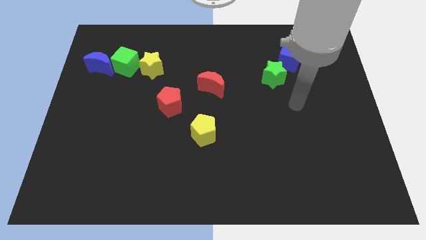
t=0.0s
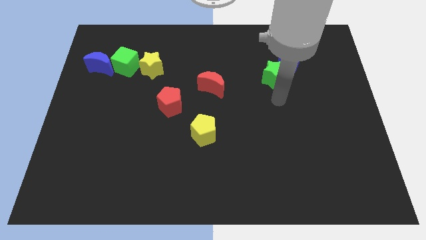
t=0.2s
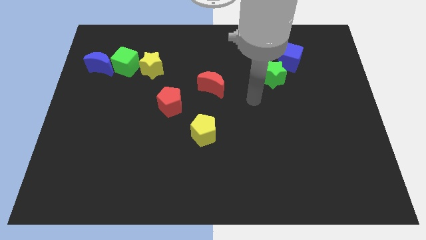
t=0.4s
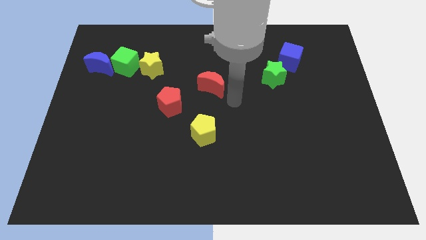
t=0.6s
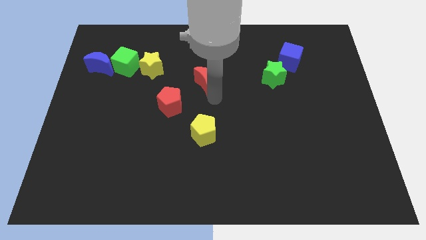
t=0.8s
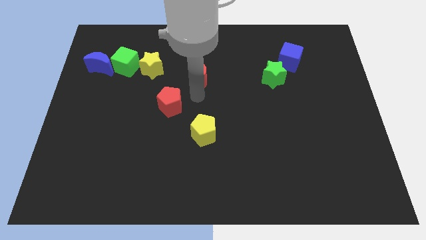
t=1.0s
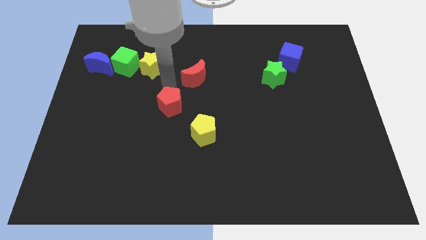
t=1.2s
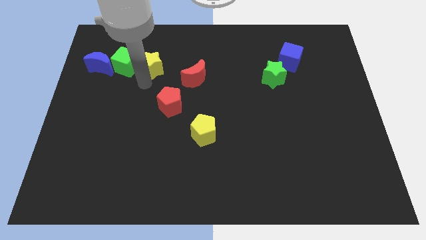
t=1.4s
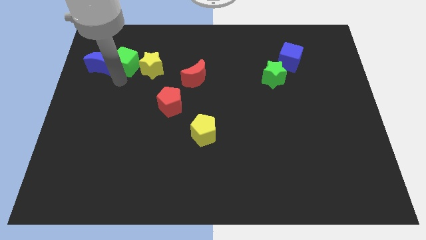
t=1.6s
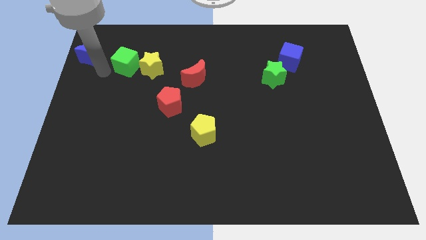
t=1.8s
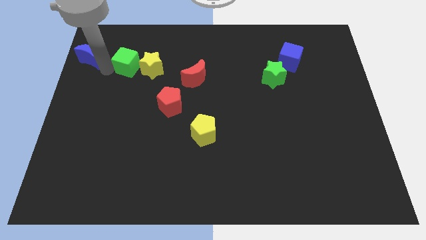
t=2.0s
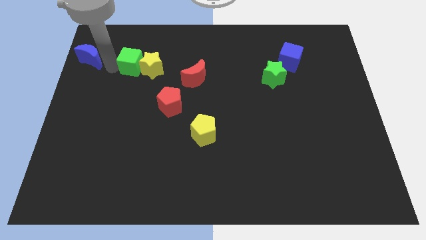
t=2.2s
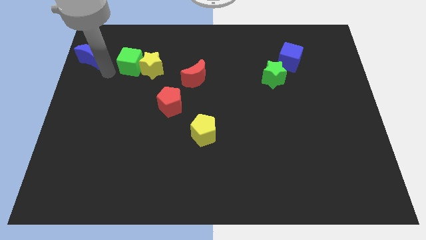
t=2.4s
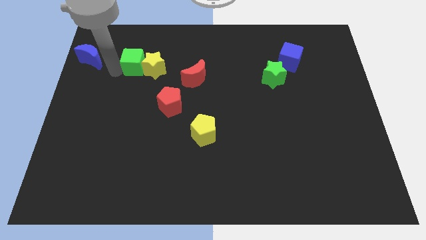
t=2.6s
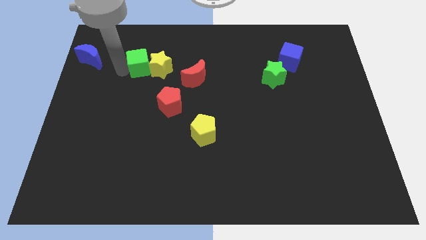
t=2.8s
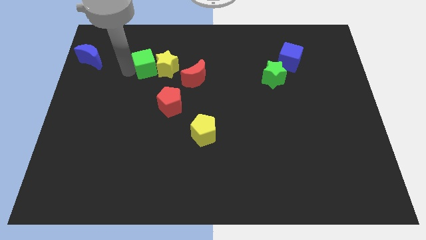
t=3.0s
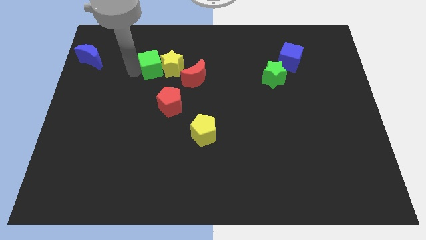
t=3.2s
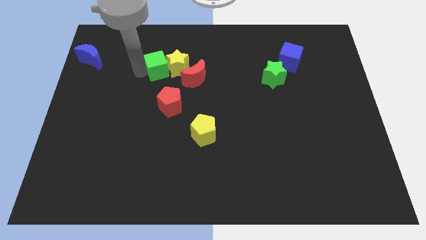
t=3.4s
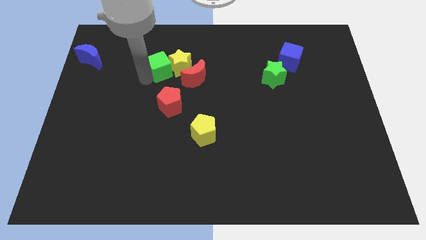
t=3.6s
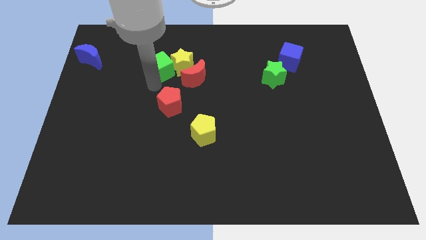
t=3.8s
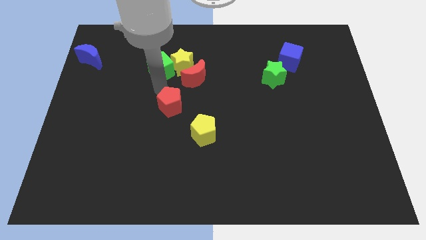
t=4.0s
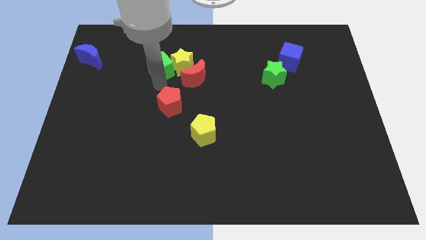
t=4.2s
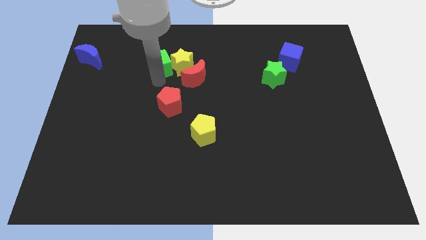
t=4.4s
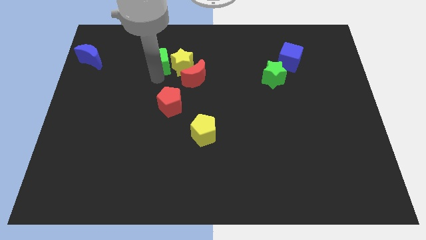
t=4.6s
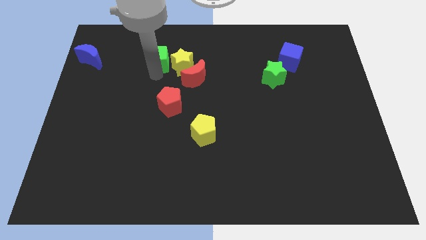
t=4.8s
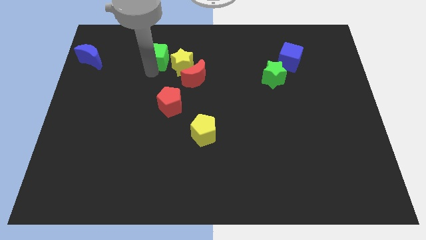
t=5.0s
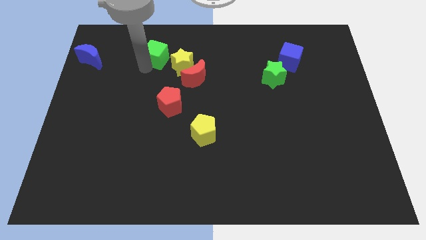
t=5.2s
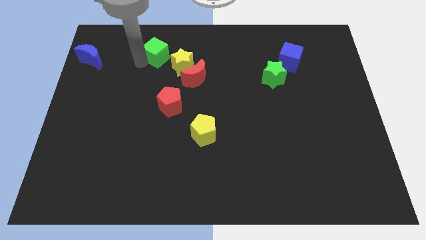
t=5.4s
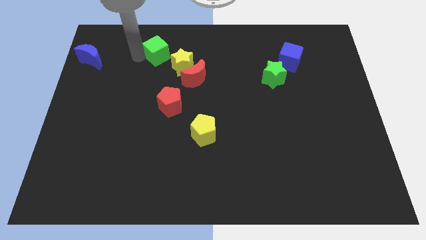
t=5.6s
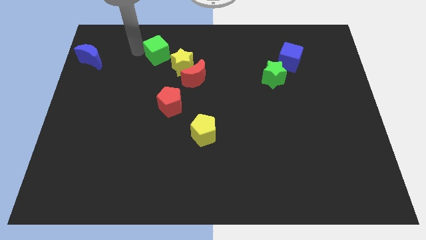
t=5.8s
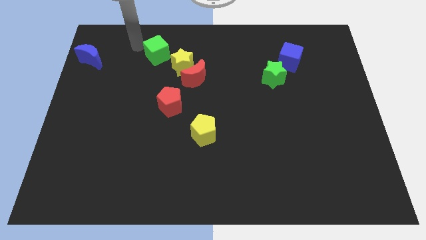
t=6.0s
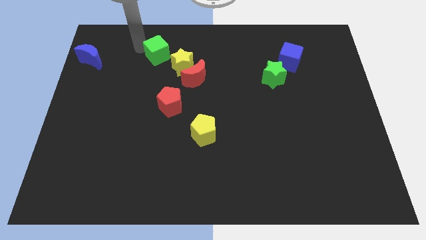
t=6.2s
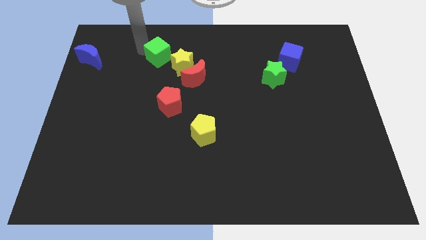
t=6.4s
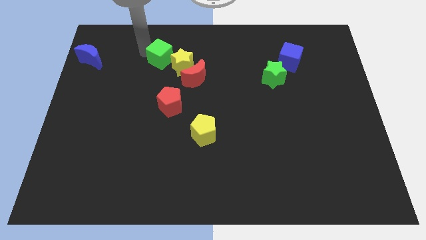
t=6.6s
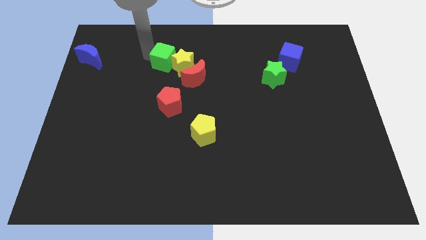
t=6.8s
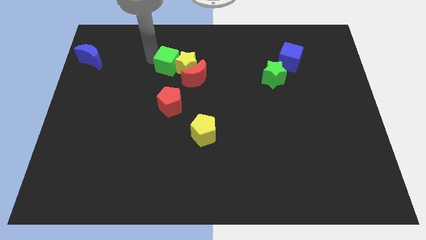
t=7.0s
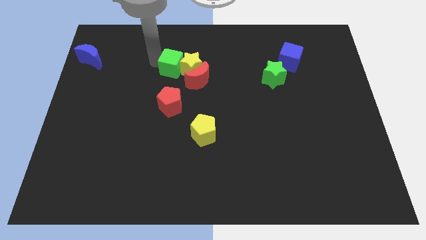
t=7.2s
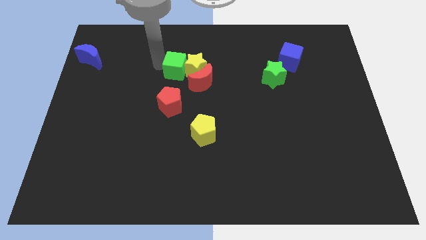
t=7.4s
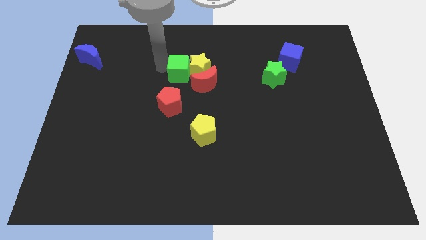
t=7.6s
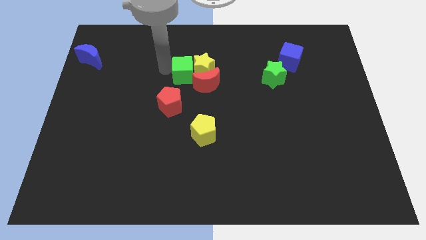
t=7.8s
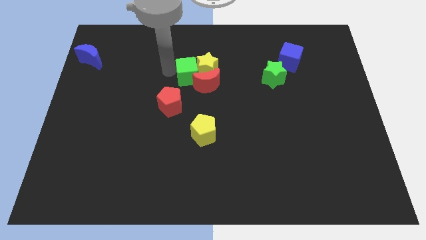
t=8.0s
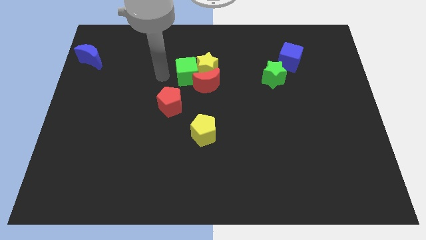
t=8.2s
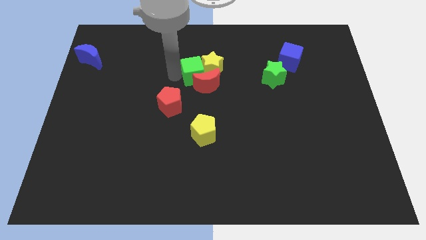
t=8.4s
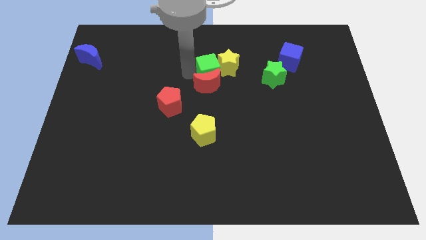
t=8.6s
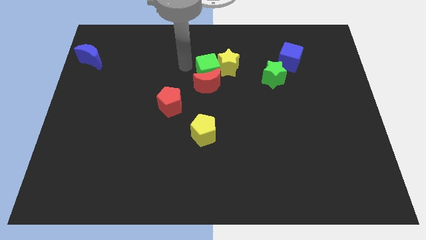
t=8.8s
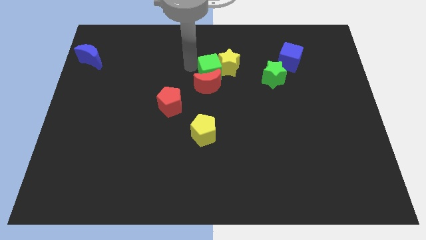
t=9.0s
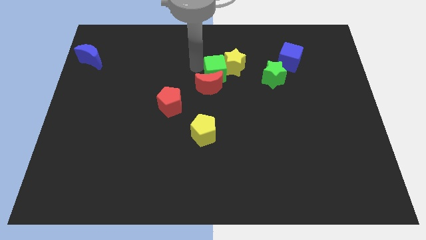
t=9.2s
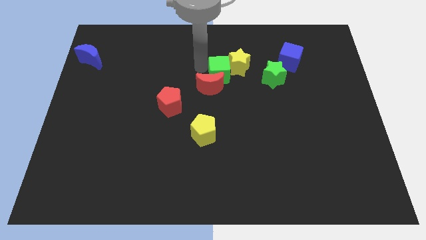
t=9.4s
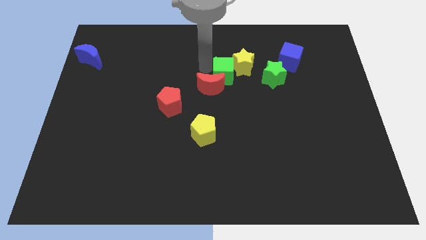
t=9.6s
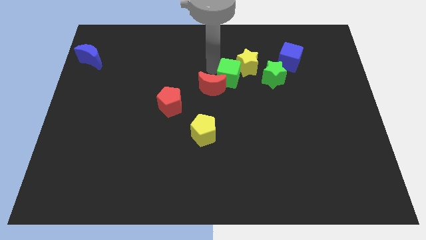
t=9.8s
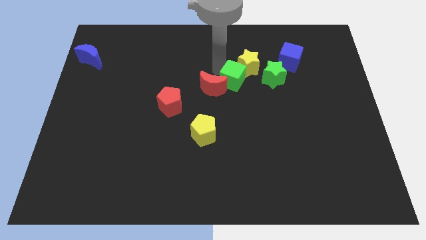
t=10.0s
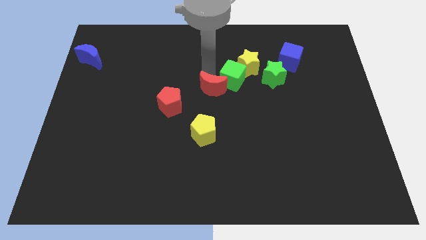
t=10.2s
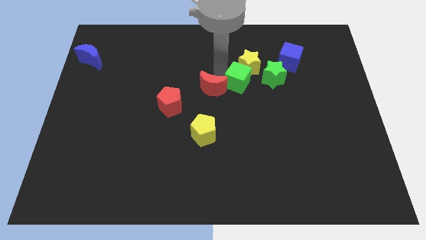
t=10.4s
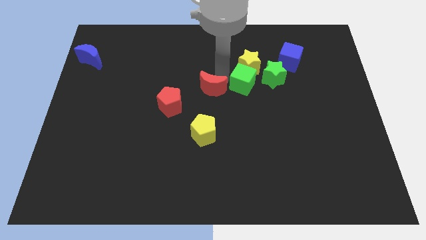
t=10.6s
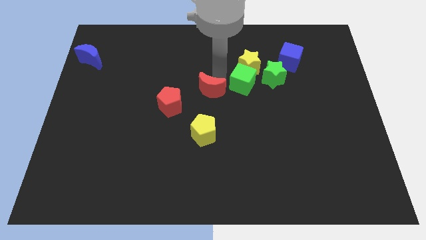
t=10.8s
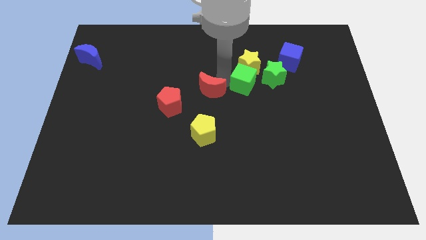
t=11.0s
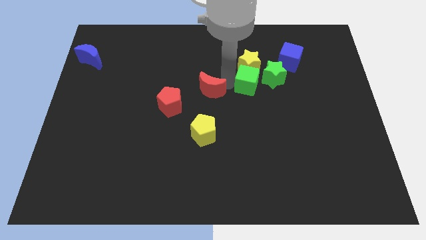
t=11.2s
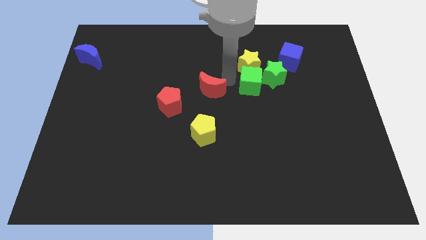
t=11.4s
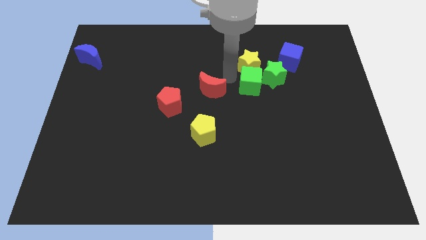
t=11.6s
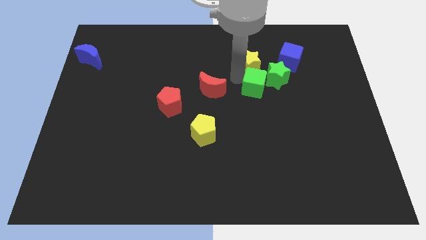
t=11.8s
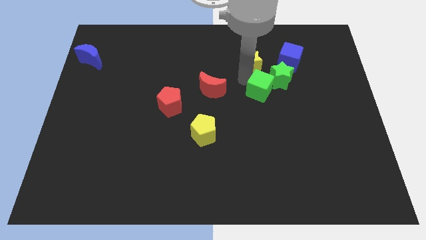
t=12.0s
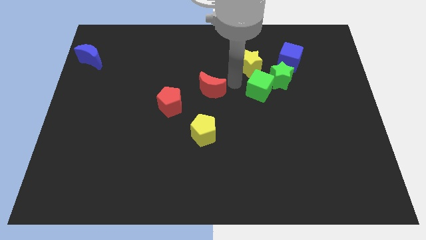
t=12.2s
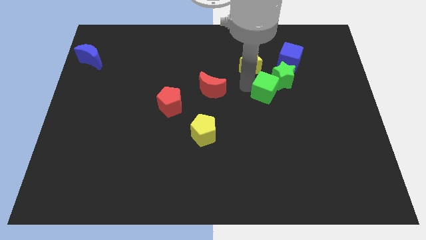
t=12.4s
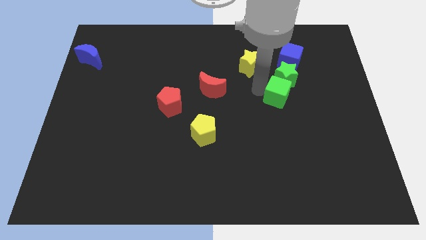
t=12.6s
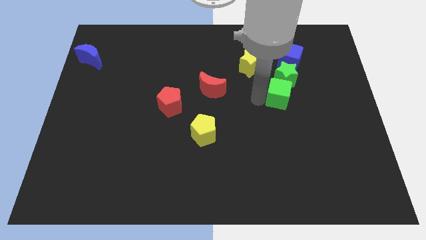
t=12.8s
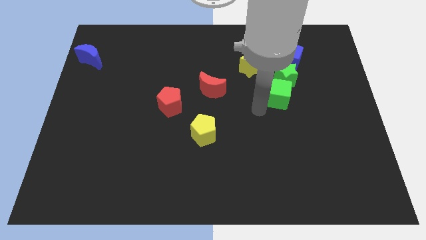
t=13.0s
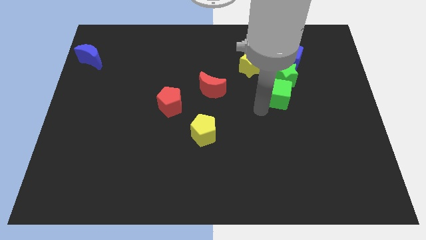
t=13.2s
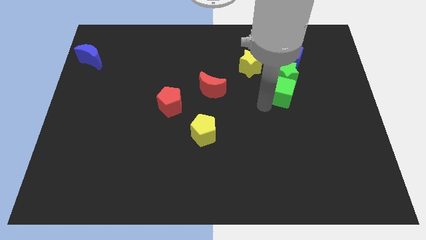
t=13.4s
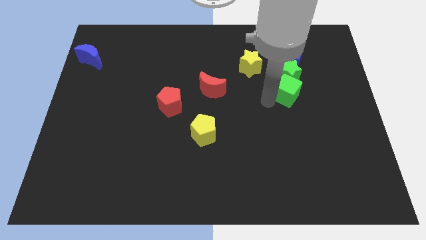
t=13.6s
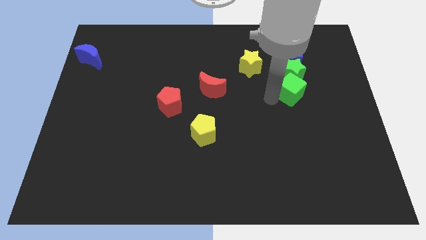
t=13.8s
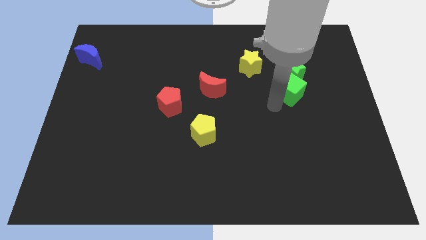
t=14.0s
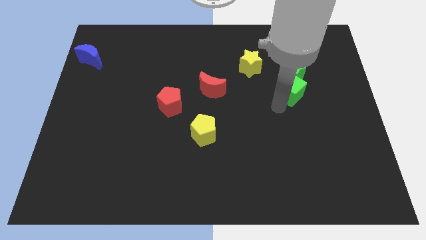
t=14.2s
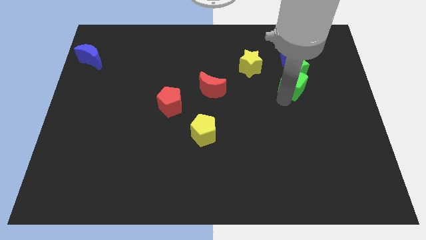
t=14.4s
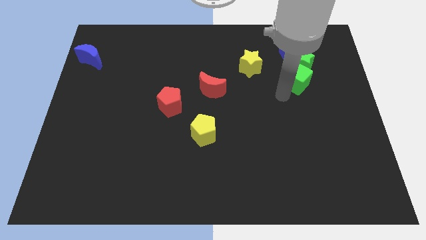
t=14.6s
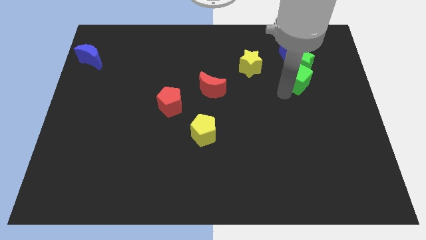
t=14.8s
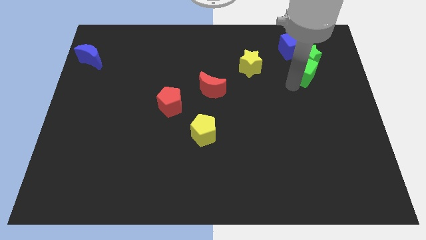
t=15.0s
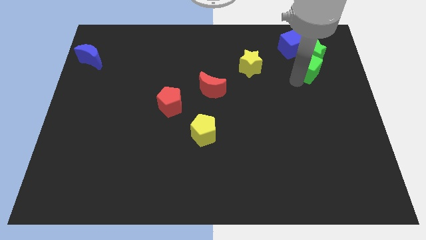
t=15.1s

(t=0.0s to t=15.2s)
push the green cube diagonally down and to the right of the blue cube
